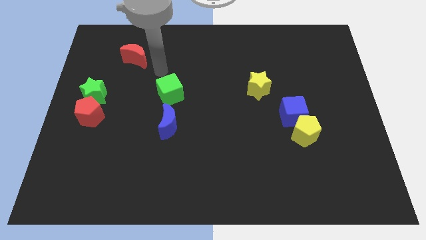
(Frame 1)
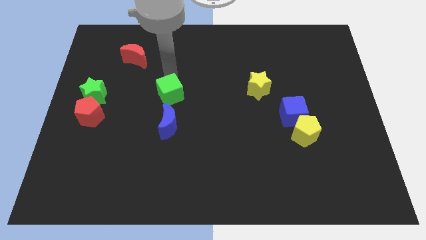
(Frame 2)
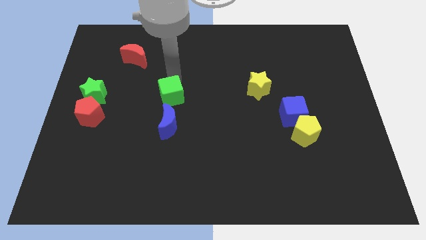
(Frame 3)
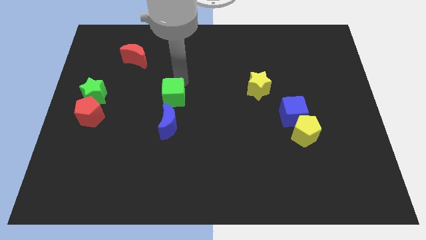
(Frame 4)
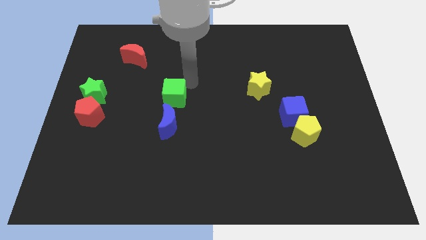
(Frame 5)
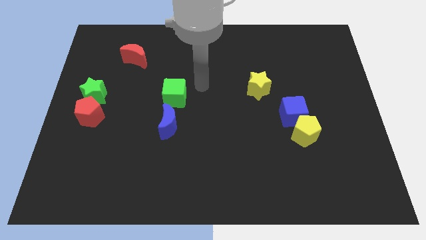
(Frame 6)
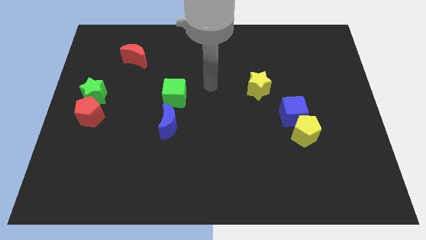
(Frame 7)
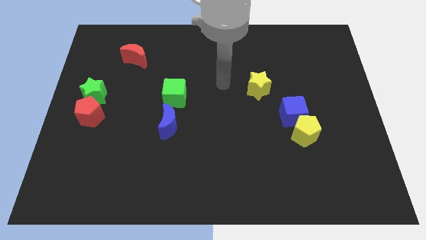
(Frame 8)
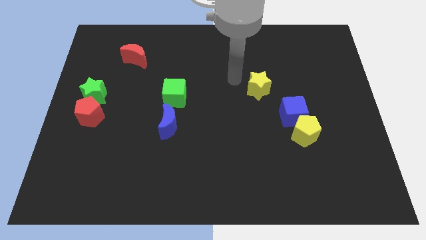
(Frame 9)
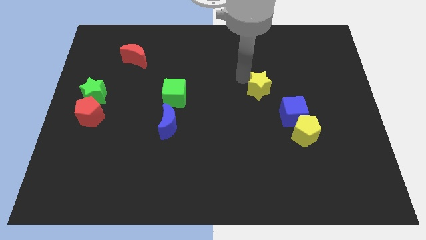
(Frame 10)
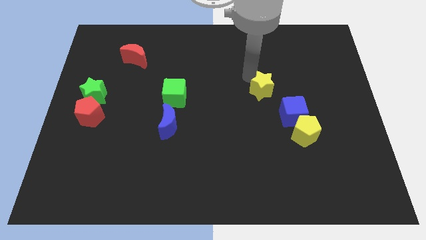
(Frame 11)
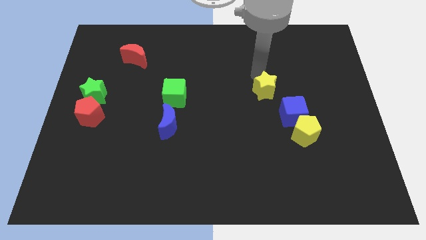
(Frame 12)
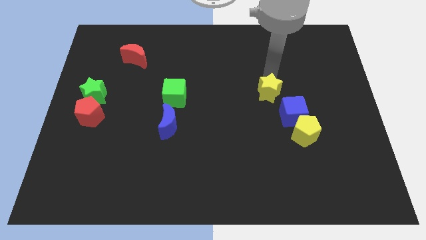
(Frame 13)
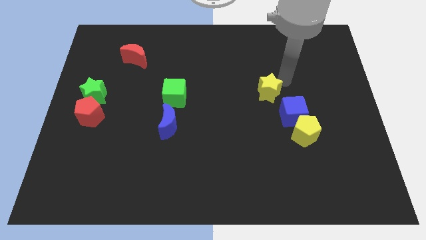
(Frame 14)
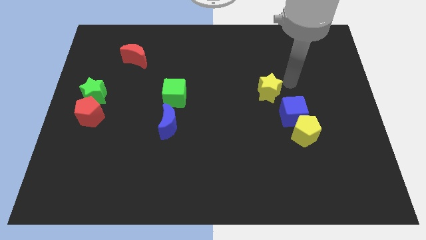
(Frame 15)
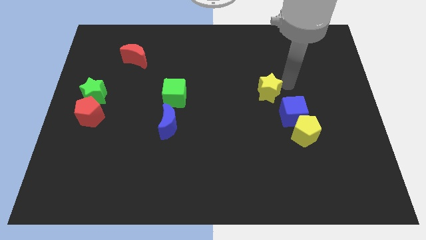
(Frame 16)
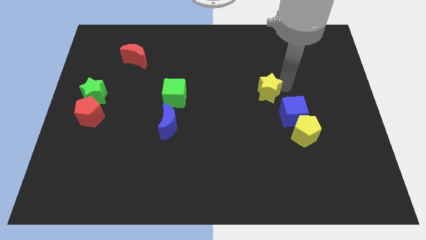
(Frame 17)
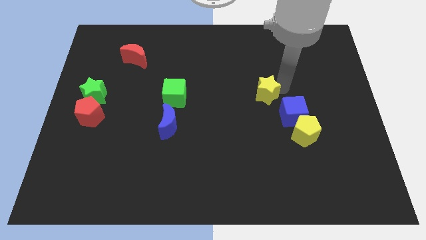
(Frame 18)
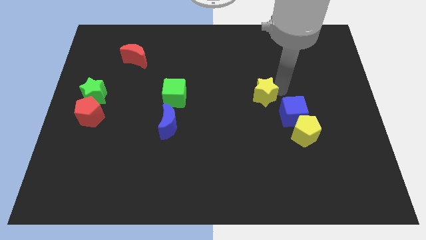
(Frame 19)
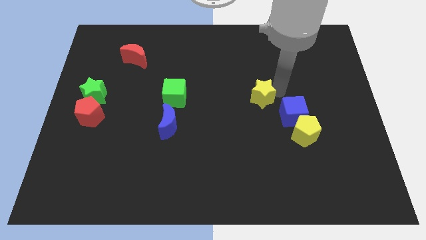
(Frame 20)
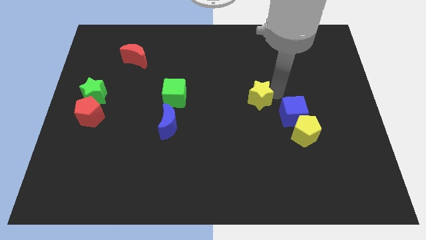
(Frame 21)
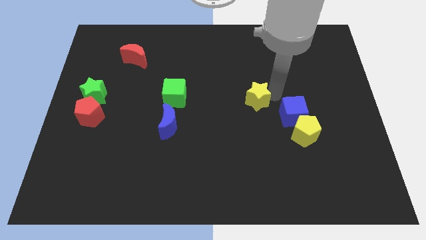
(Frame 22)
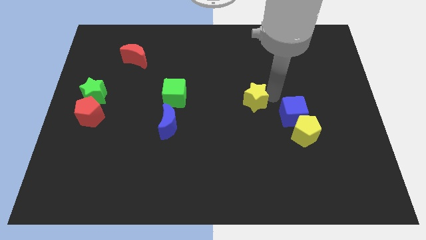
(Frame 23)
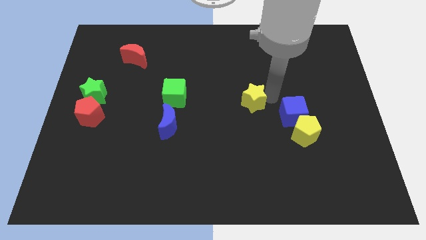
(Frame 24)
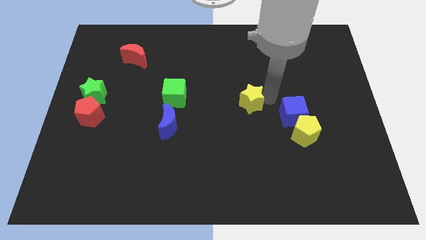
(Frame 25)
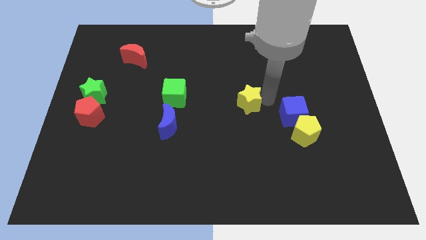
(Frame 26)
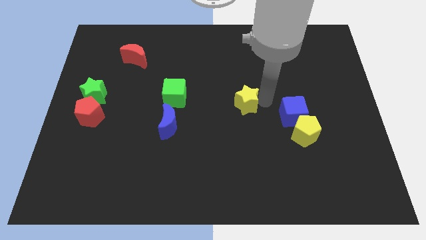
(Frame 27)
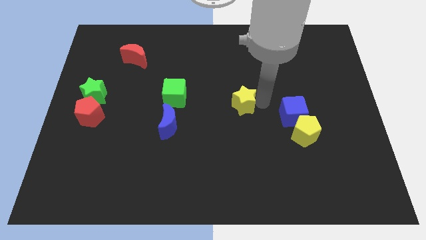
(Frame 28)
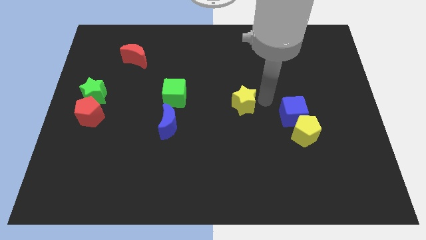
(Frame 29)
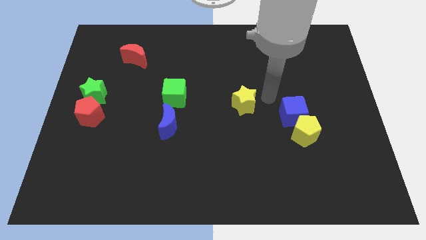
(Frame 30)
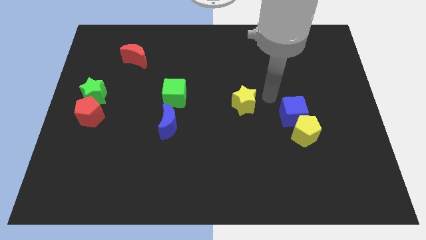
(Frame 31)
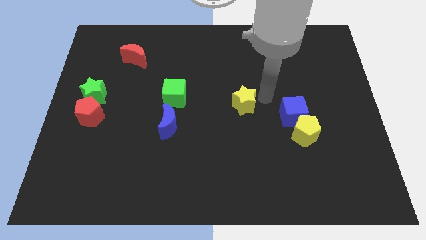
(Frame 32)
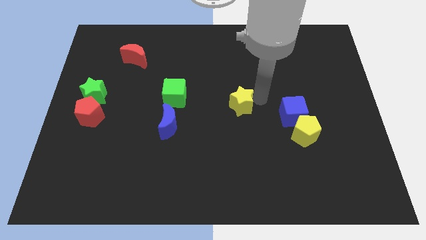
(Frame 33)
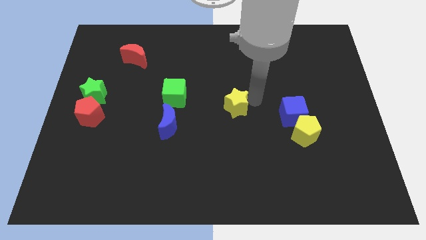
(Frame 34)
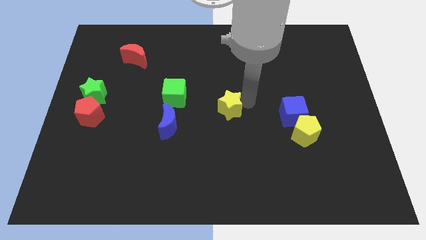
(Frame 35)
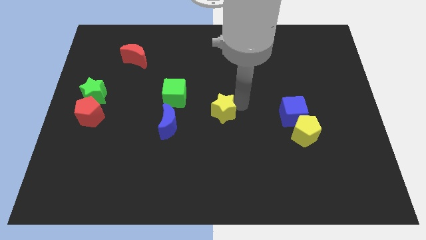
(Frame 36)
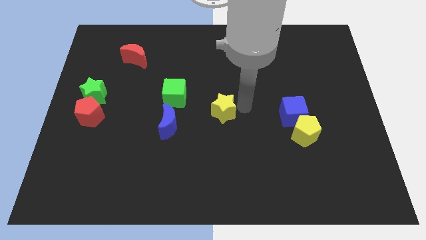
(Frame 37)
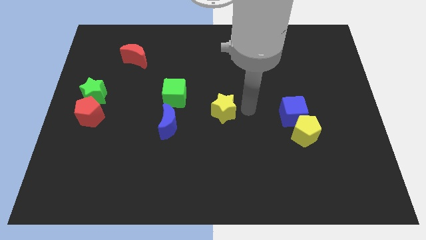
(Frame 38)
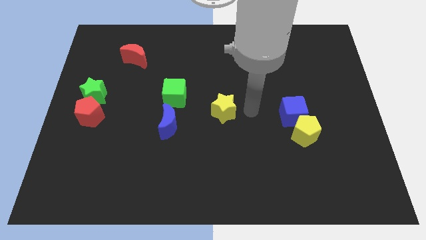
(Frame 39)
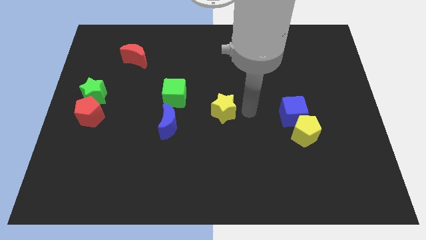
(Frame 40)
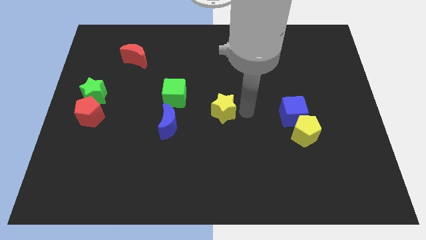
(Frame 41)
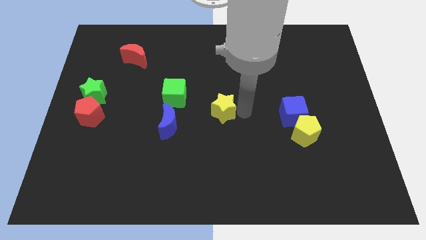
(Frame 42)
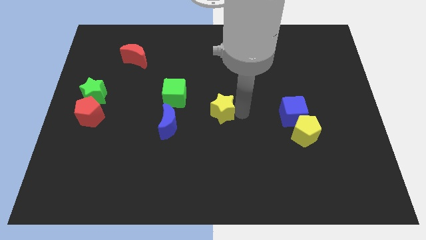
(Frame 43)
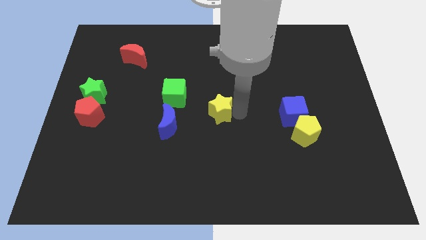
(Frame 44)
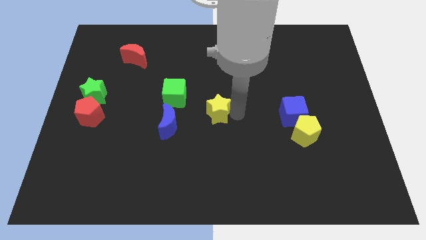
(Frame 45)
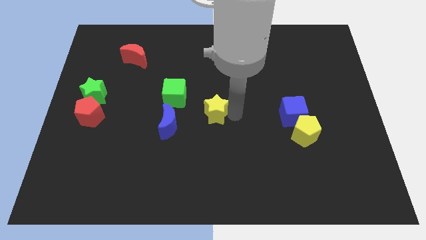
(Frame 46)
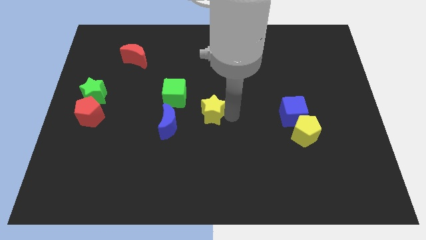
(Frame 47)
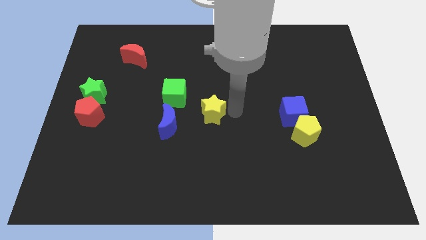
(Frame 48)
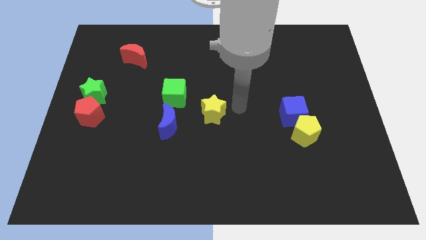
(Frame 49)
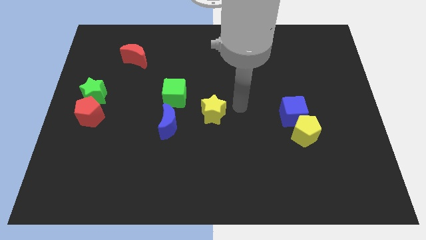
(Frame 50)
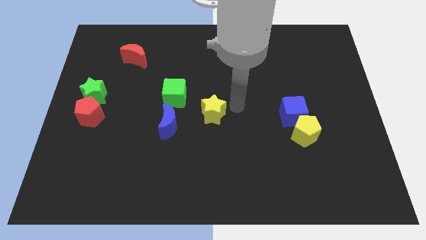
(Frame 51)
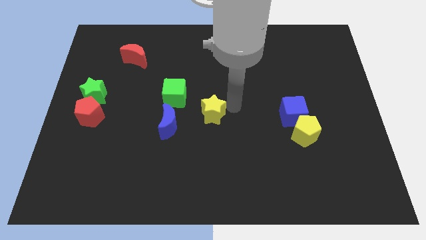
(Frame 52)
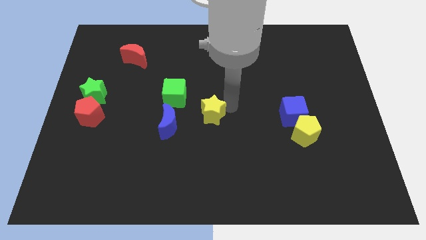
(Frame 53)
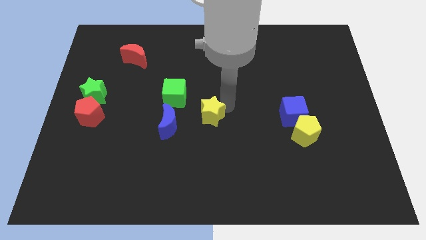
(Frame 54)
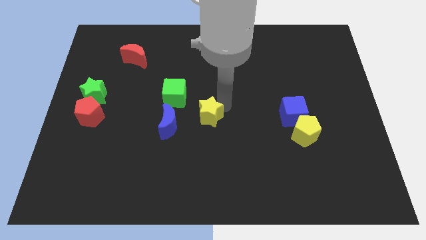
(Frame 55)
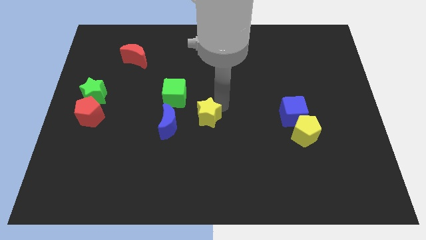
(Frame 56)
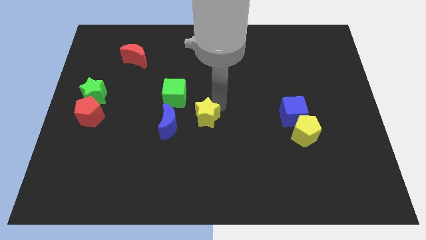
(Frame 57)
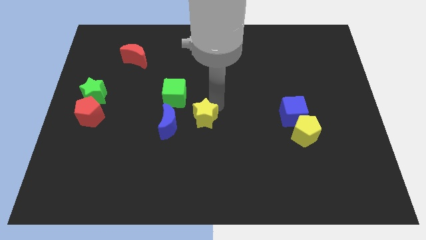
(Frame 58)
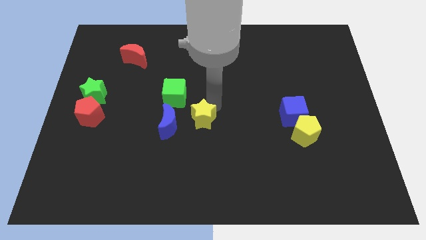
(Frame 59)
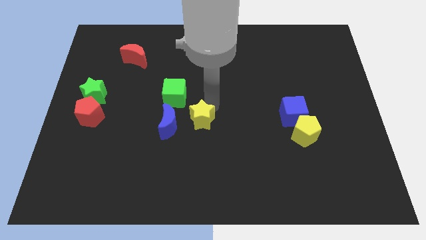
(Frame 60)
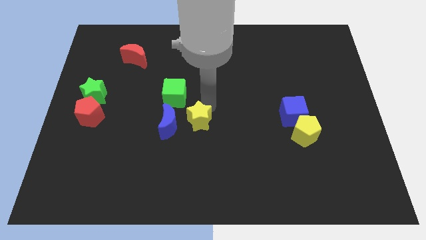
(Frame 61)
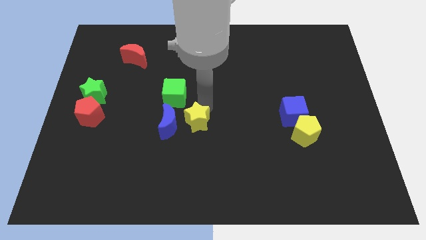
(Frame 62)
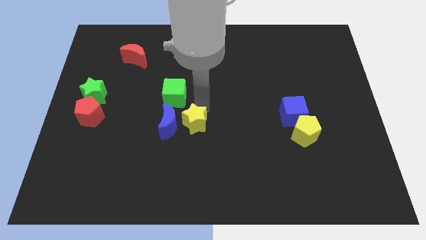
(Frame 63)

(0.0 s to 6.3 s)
put the yellow star to the blue moon

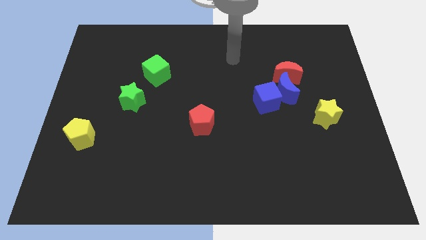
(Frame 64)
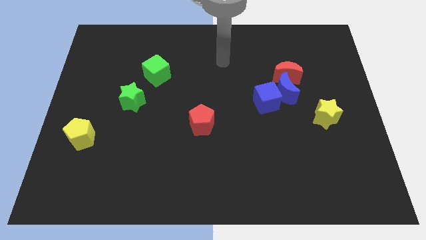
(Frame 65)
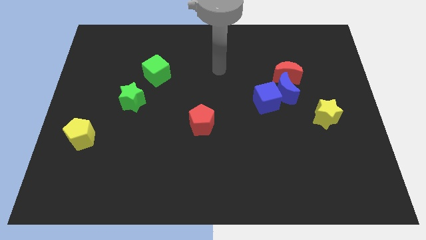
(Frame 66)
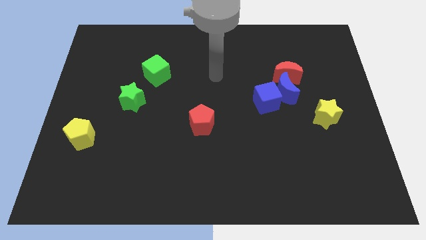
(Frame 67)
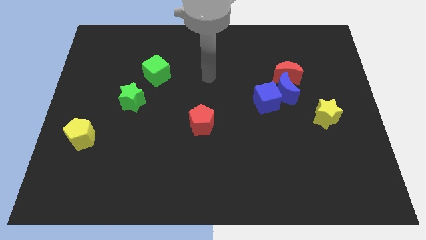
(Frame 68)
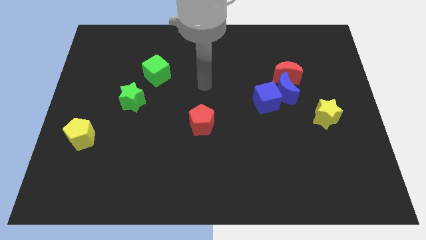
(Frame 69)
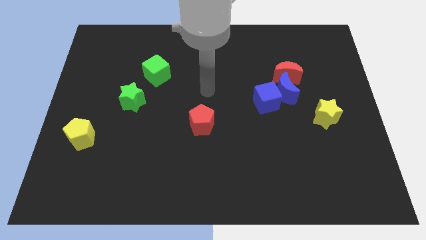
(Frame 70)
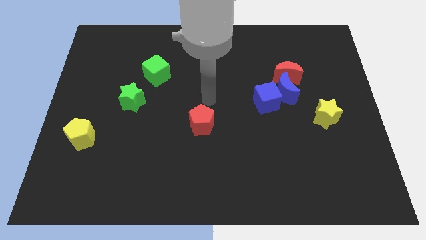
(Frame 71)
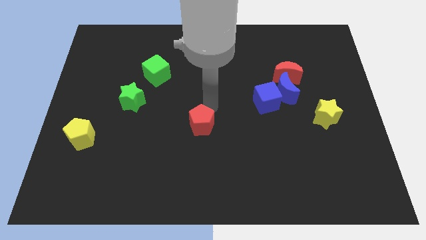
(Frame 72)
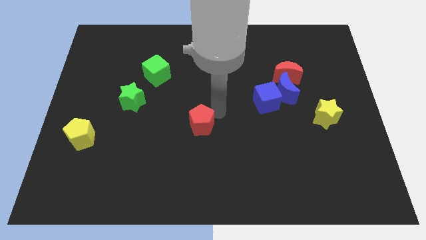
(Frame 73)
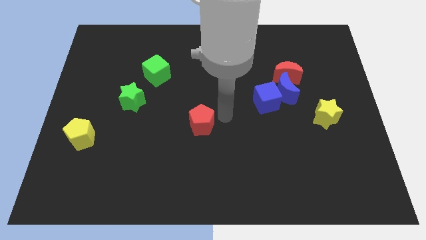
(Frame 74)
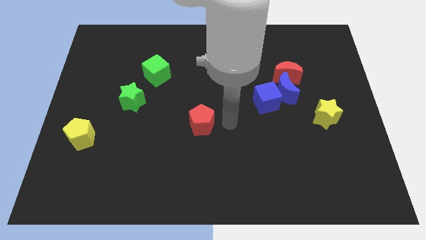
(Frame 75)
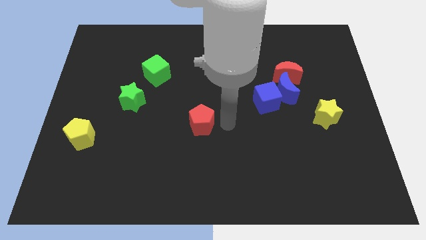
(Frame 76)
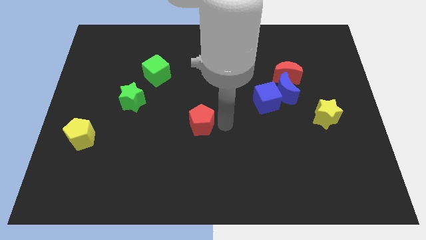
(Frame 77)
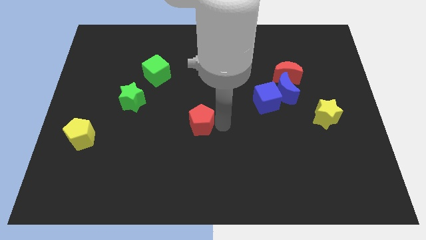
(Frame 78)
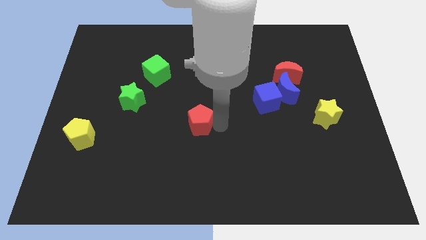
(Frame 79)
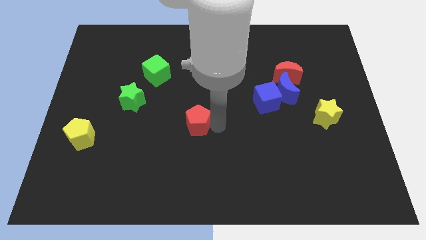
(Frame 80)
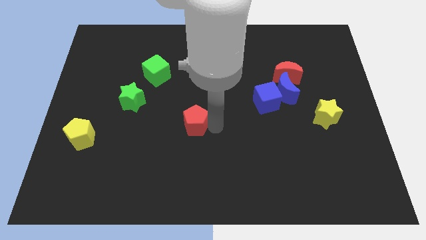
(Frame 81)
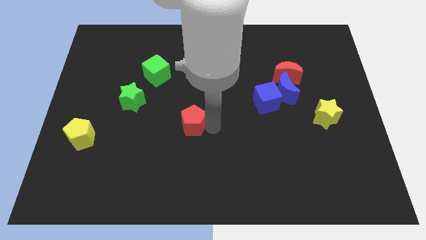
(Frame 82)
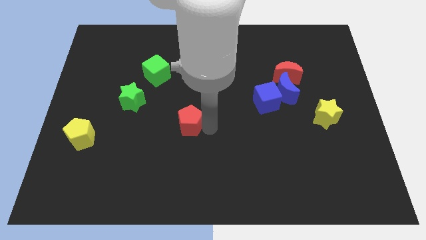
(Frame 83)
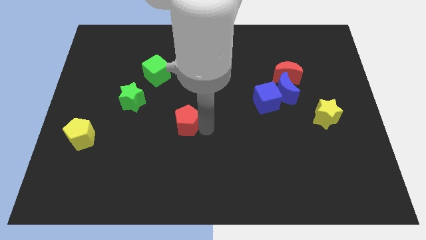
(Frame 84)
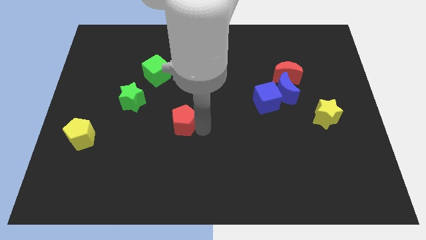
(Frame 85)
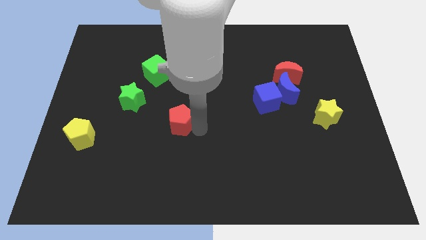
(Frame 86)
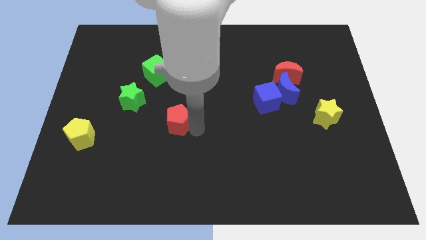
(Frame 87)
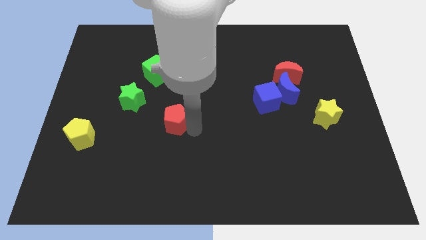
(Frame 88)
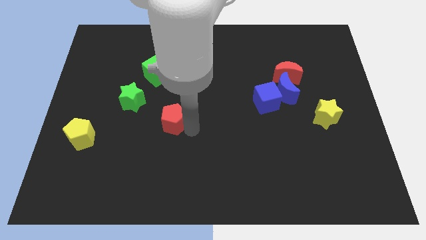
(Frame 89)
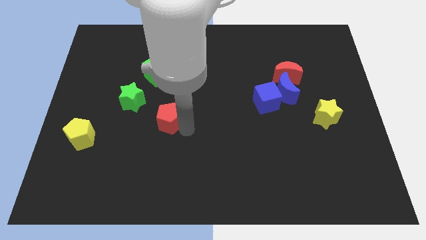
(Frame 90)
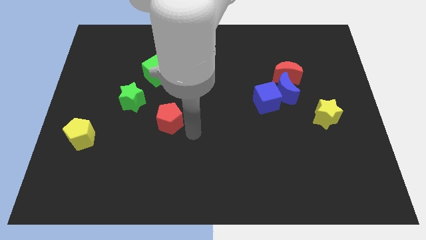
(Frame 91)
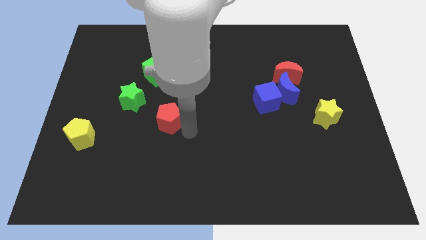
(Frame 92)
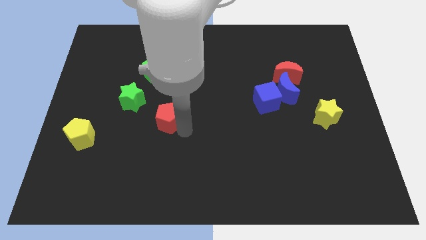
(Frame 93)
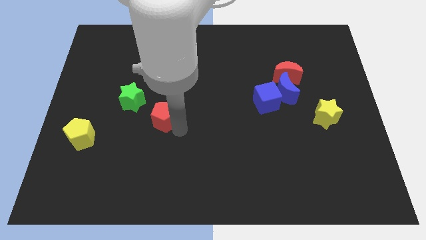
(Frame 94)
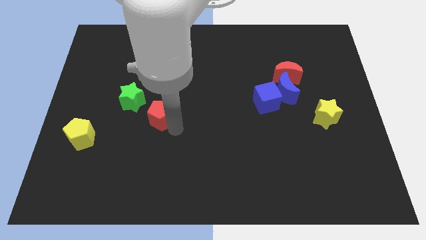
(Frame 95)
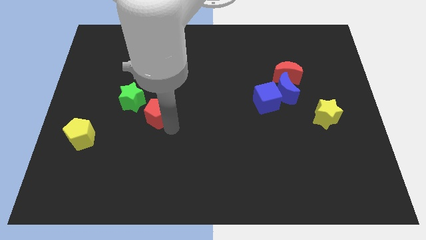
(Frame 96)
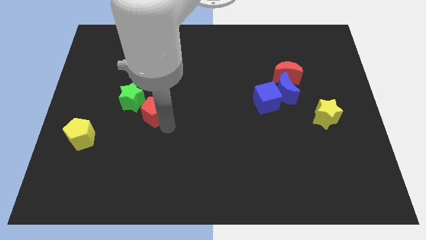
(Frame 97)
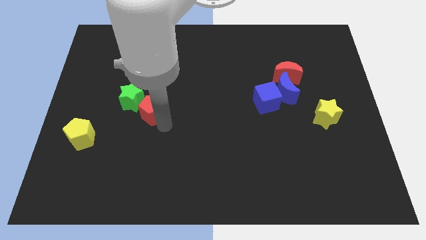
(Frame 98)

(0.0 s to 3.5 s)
put the red pentagon towards the green star
